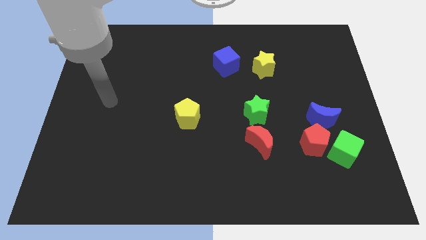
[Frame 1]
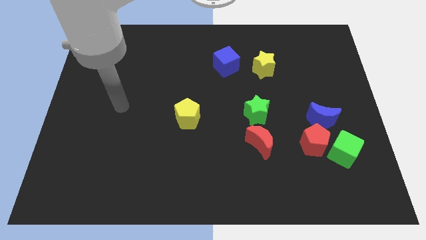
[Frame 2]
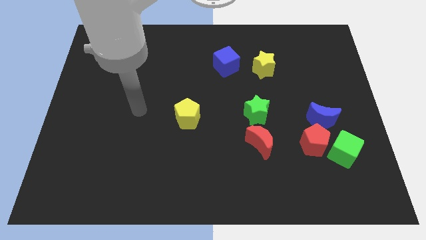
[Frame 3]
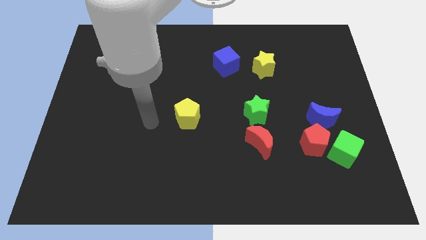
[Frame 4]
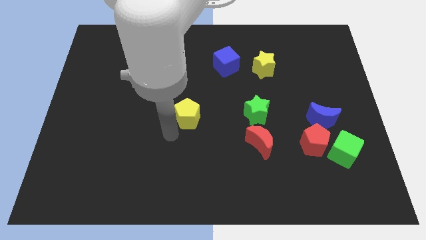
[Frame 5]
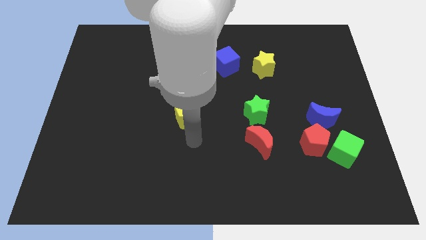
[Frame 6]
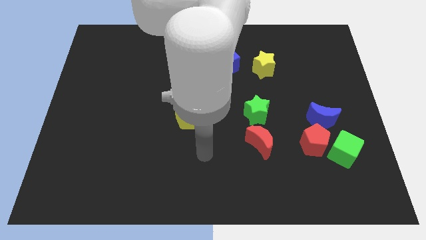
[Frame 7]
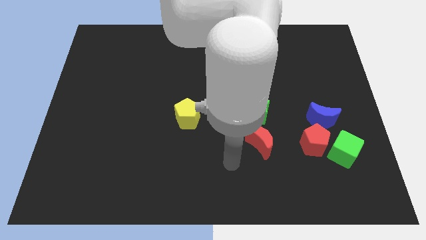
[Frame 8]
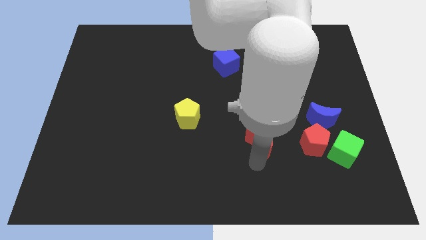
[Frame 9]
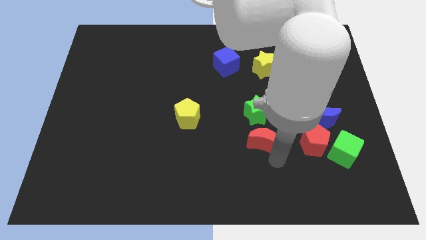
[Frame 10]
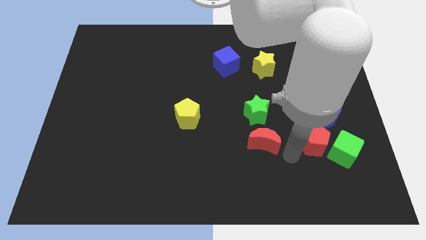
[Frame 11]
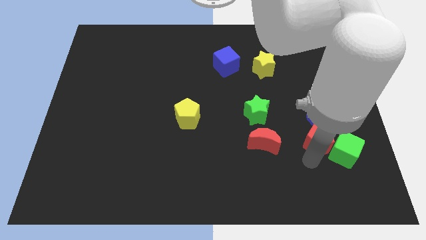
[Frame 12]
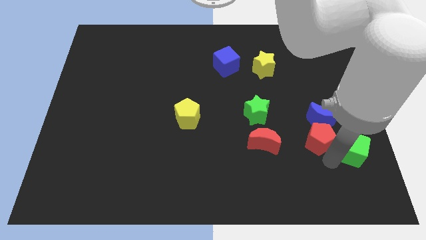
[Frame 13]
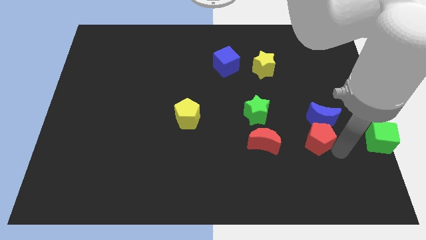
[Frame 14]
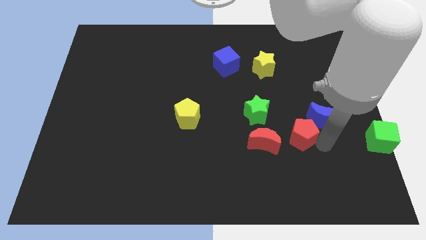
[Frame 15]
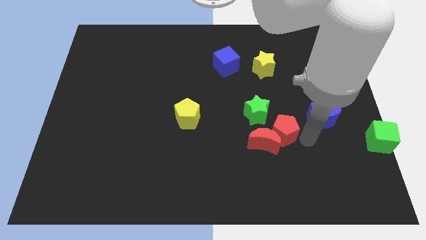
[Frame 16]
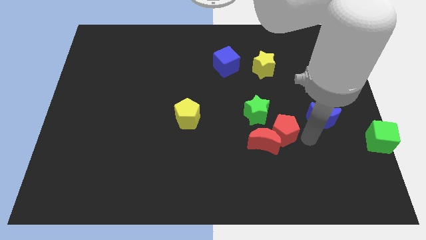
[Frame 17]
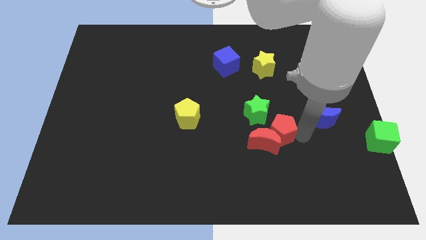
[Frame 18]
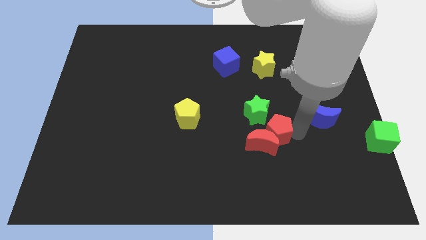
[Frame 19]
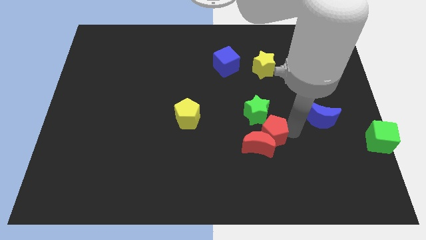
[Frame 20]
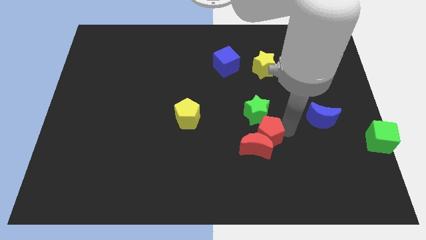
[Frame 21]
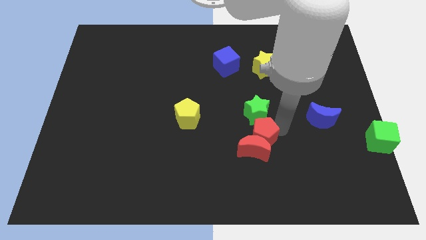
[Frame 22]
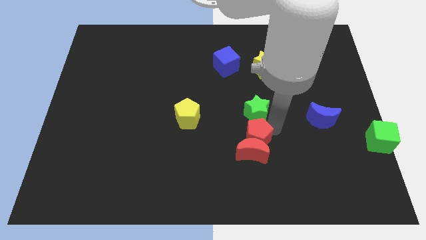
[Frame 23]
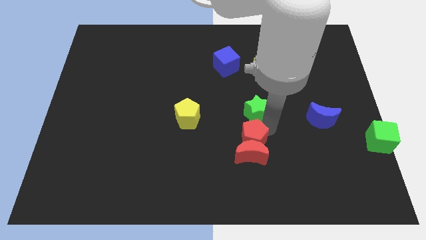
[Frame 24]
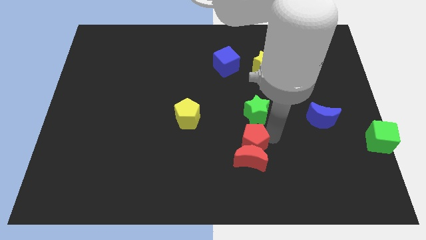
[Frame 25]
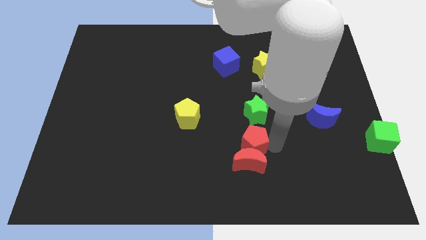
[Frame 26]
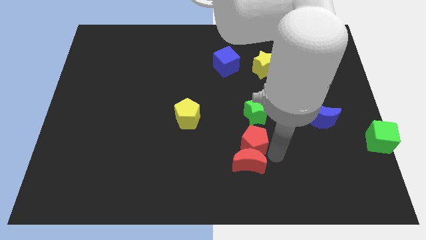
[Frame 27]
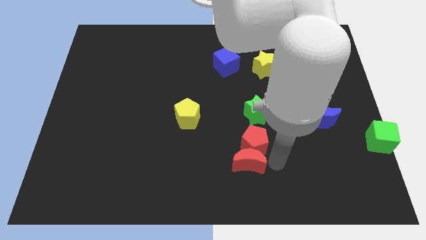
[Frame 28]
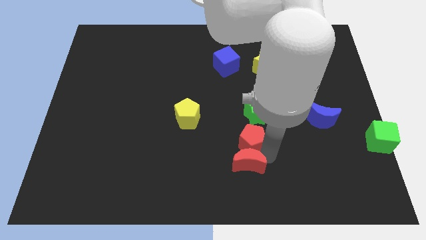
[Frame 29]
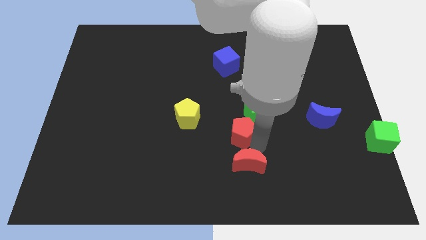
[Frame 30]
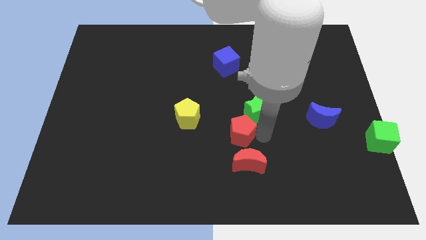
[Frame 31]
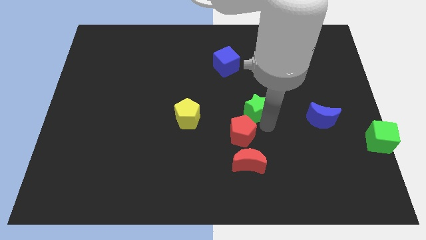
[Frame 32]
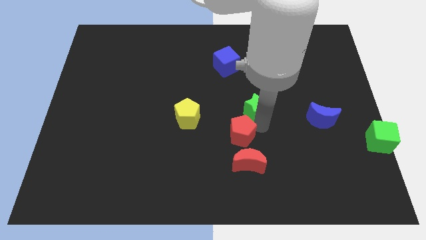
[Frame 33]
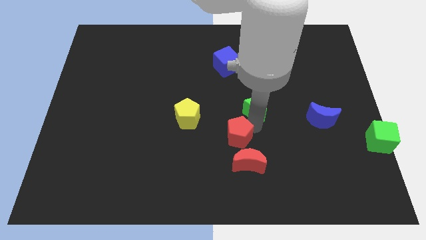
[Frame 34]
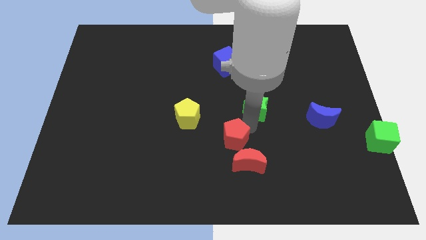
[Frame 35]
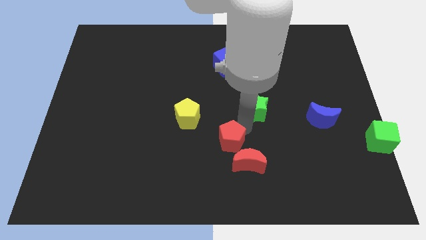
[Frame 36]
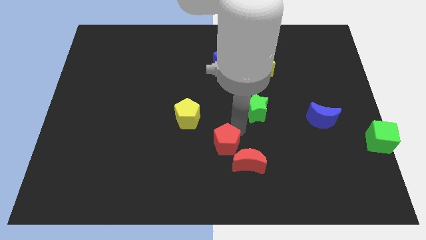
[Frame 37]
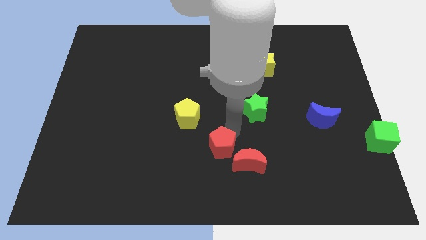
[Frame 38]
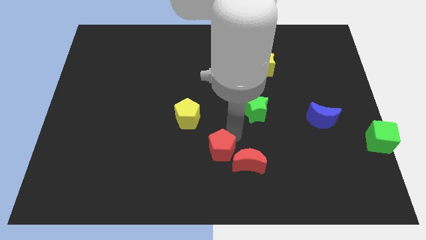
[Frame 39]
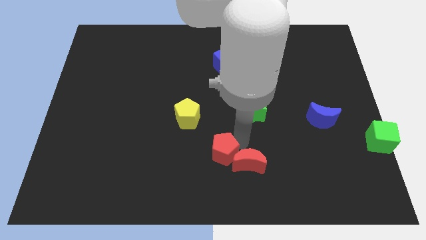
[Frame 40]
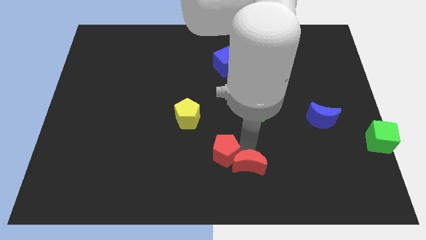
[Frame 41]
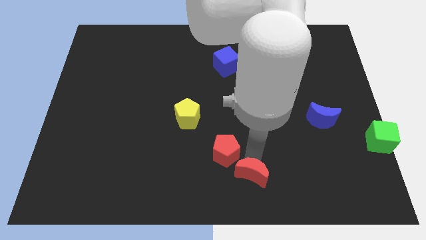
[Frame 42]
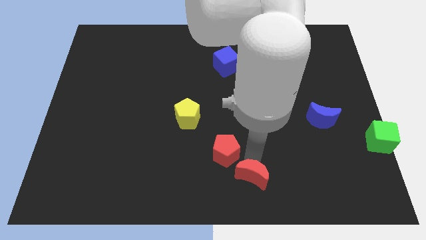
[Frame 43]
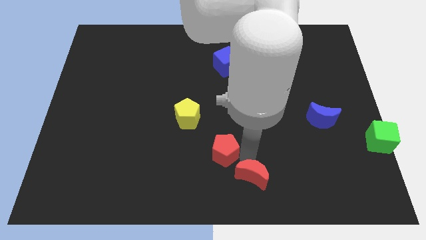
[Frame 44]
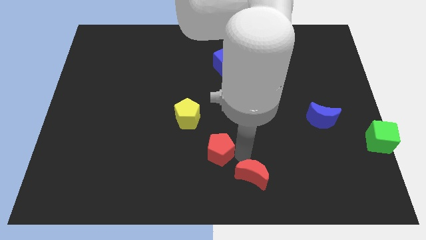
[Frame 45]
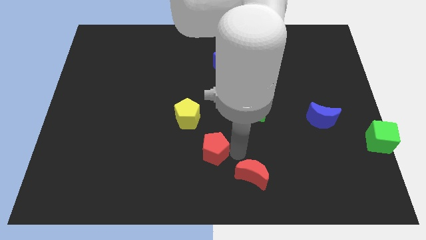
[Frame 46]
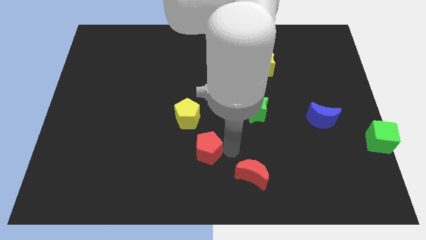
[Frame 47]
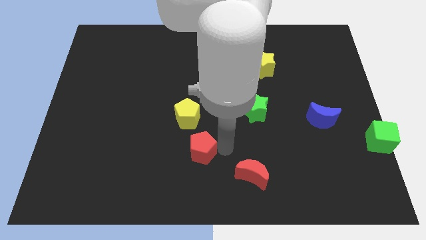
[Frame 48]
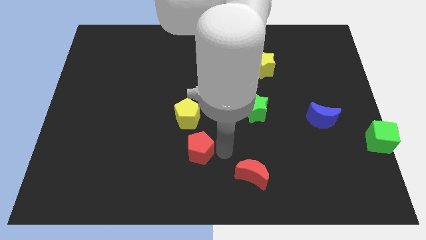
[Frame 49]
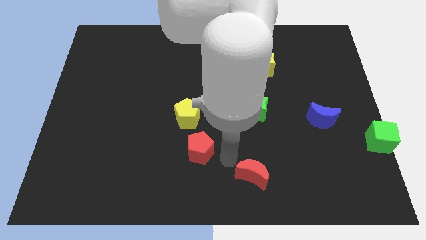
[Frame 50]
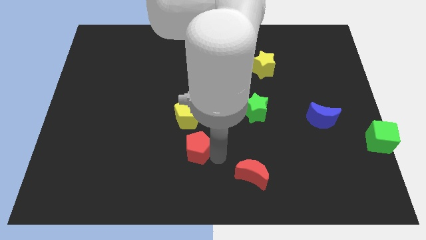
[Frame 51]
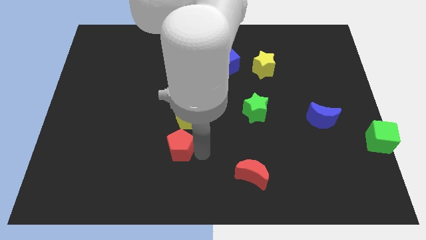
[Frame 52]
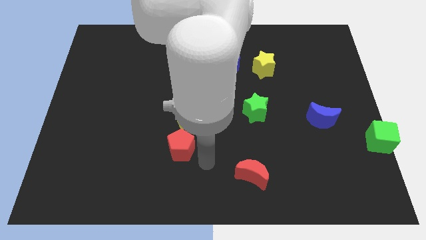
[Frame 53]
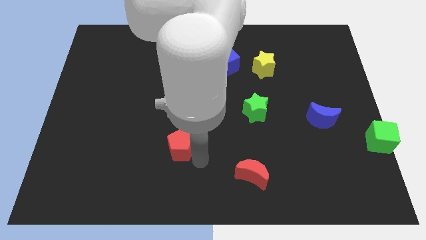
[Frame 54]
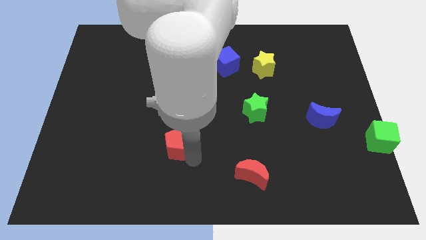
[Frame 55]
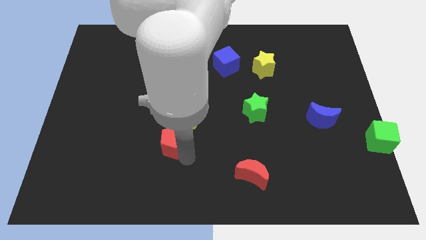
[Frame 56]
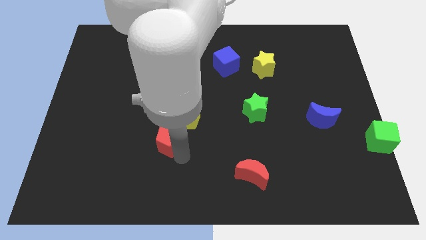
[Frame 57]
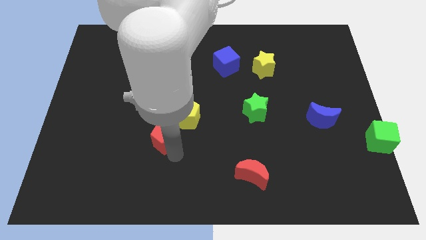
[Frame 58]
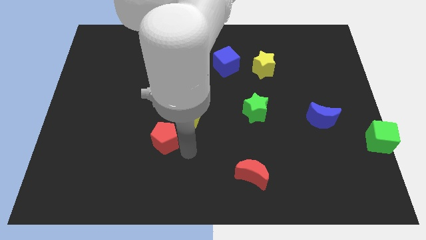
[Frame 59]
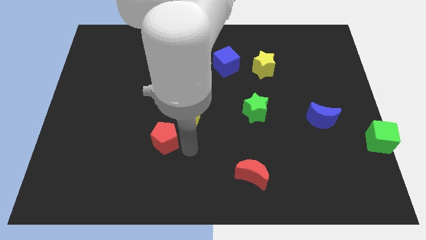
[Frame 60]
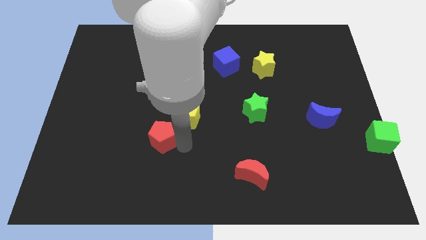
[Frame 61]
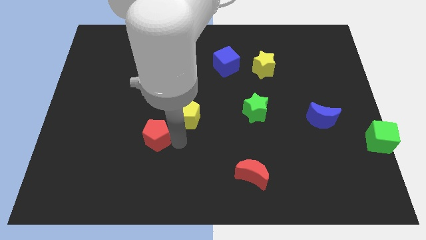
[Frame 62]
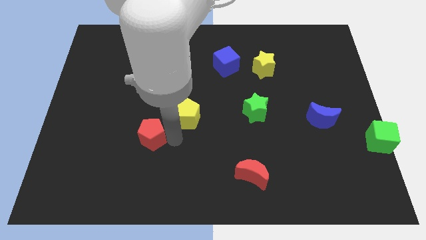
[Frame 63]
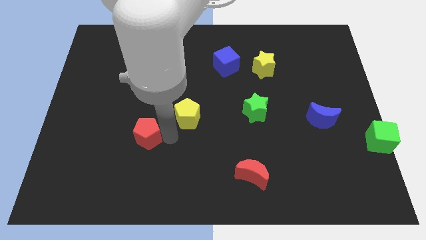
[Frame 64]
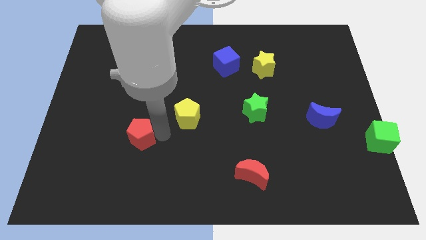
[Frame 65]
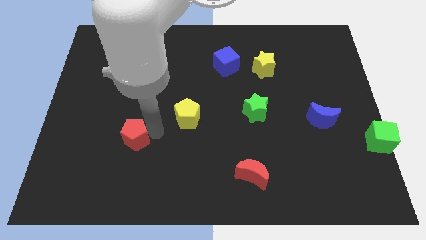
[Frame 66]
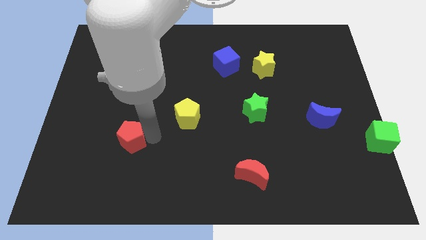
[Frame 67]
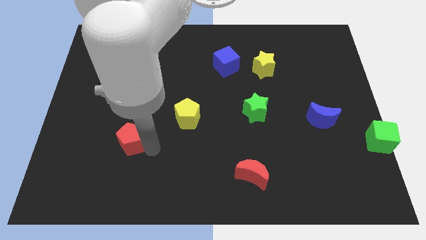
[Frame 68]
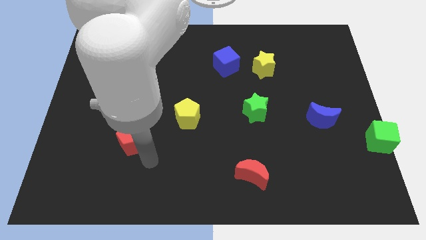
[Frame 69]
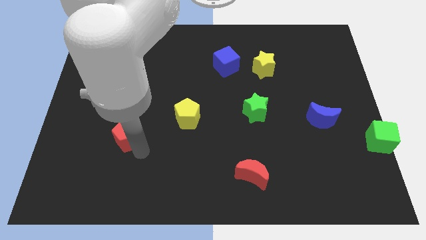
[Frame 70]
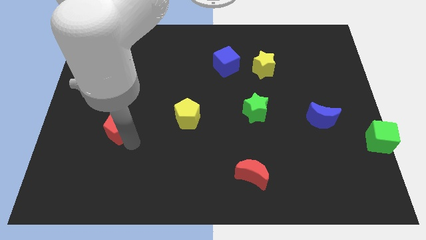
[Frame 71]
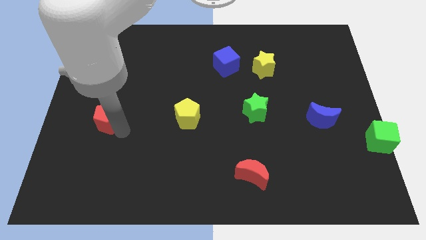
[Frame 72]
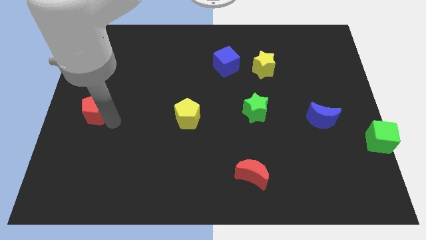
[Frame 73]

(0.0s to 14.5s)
slide the red pentagon to the left side
